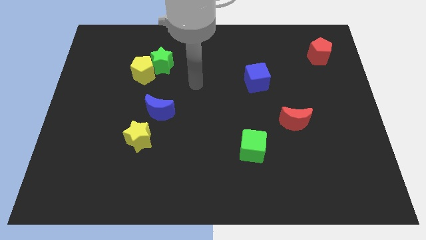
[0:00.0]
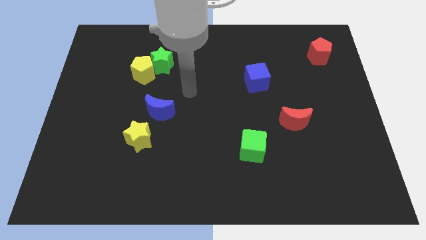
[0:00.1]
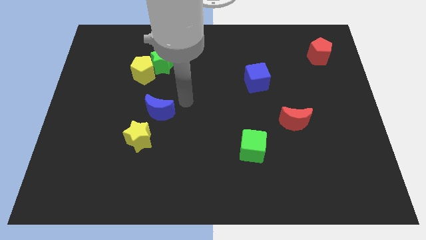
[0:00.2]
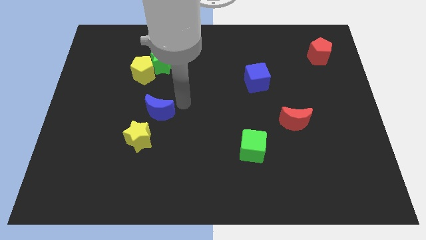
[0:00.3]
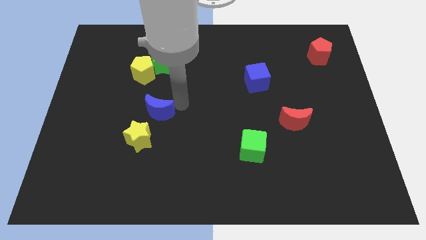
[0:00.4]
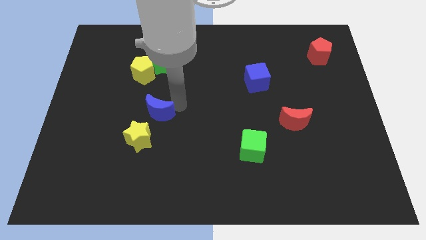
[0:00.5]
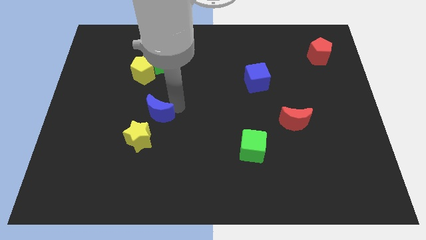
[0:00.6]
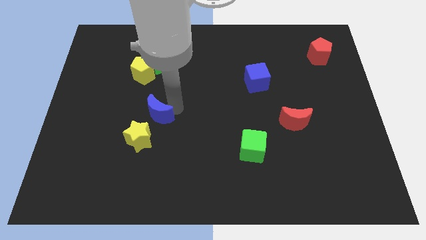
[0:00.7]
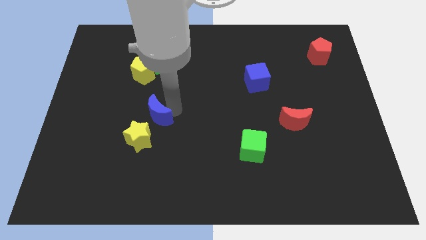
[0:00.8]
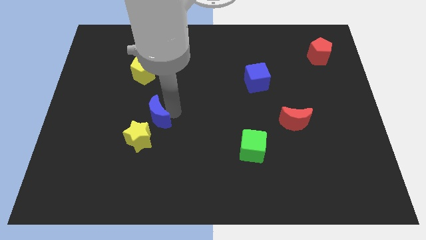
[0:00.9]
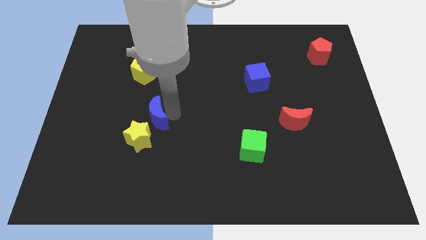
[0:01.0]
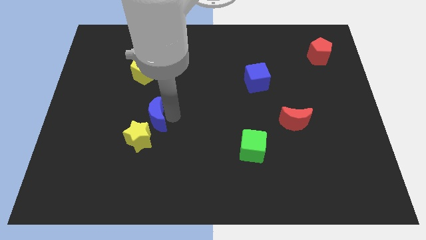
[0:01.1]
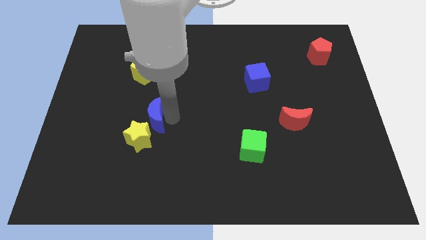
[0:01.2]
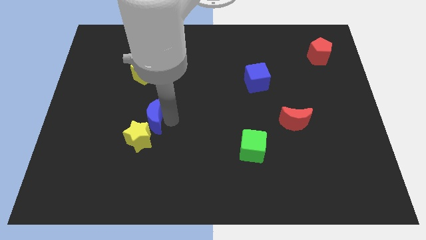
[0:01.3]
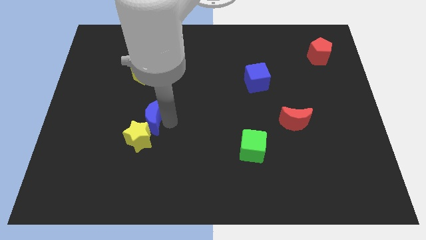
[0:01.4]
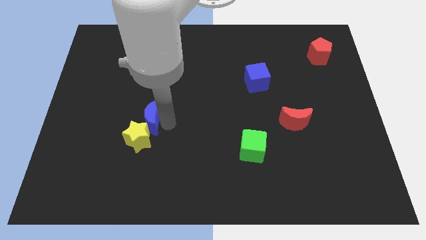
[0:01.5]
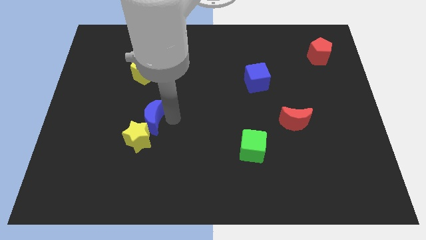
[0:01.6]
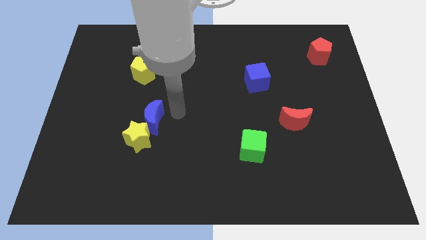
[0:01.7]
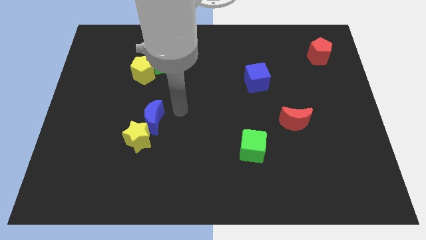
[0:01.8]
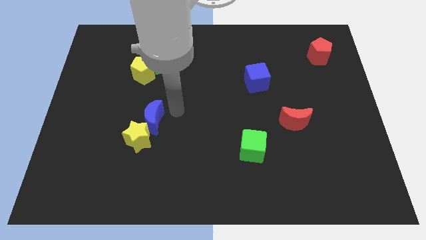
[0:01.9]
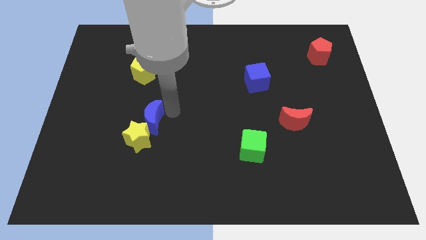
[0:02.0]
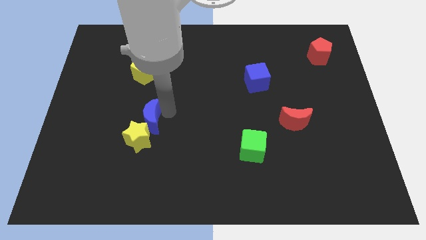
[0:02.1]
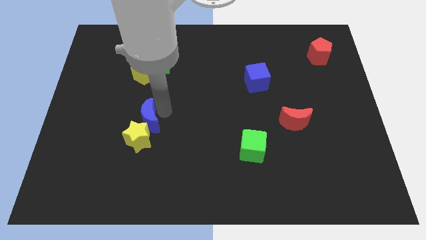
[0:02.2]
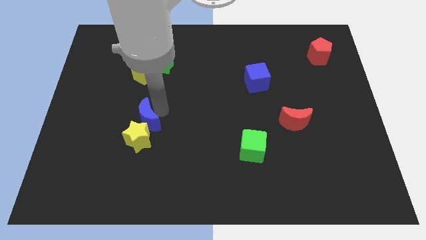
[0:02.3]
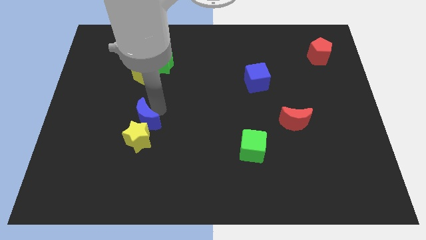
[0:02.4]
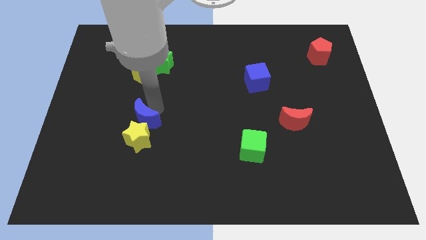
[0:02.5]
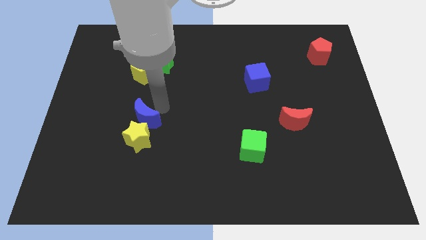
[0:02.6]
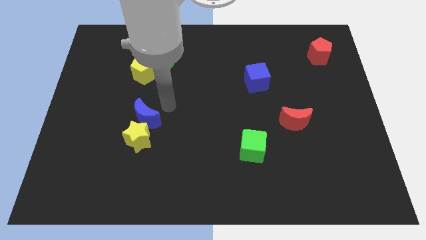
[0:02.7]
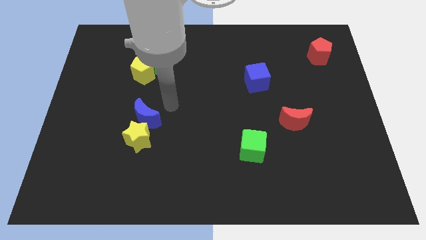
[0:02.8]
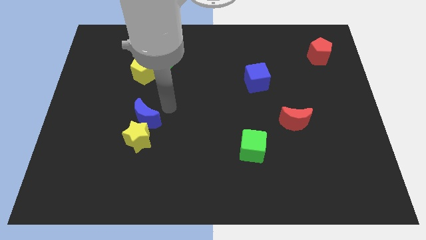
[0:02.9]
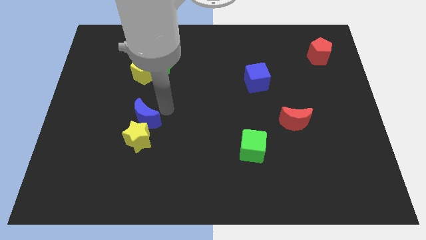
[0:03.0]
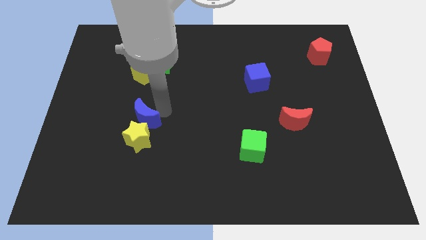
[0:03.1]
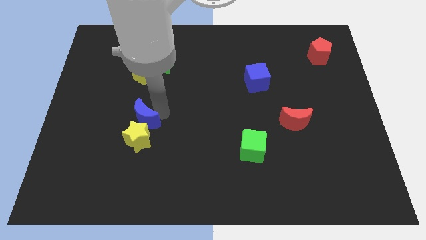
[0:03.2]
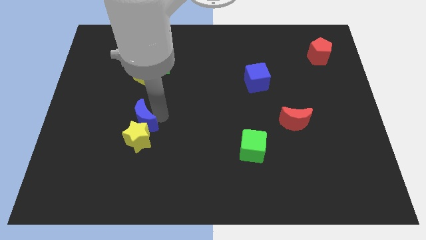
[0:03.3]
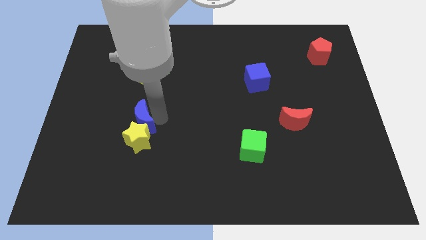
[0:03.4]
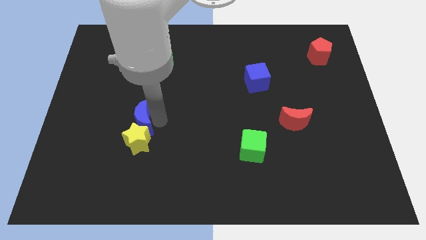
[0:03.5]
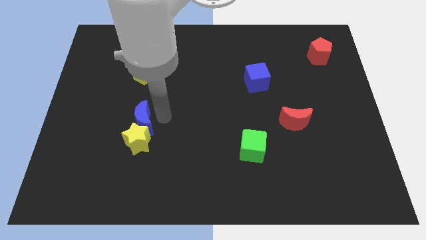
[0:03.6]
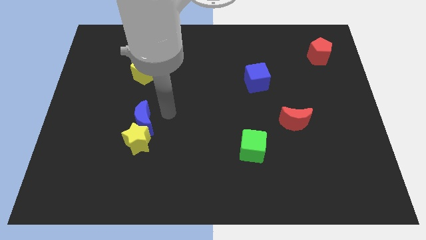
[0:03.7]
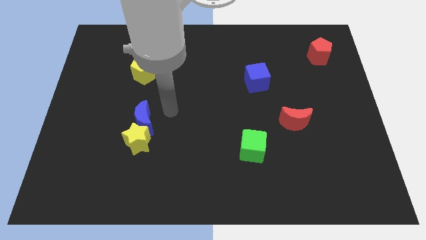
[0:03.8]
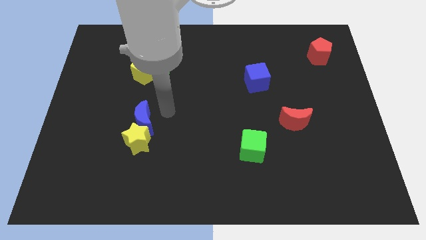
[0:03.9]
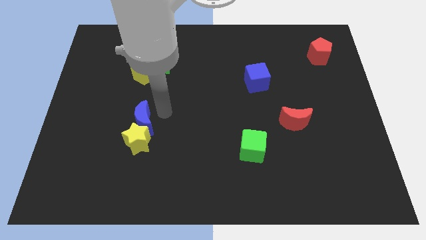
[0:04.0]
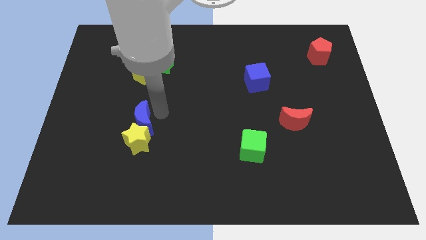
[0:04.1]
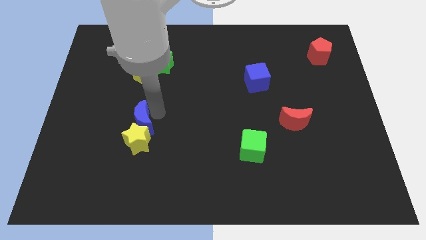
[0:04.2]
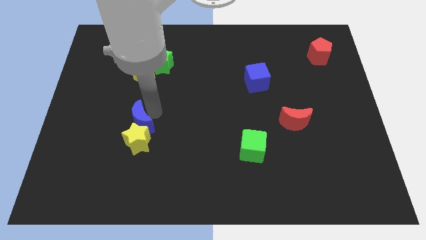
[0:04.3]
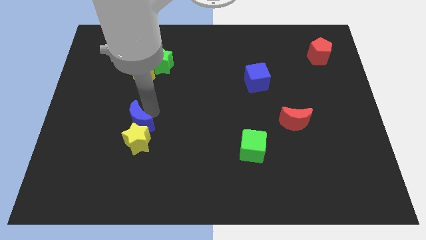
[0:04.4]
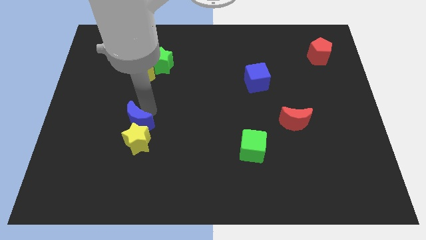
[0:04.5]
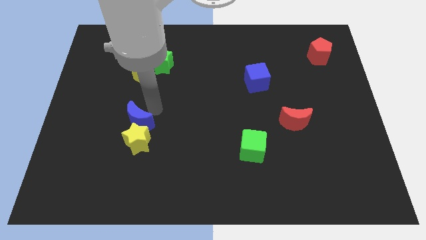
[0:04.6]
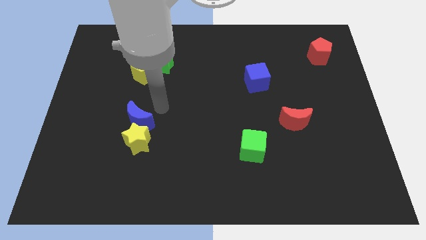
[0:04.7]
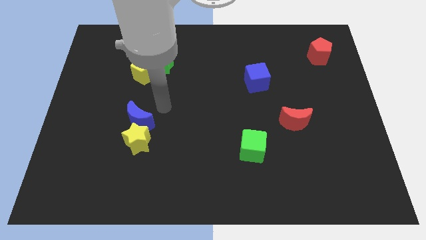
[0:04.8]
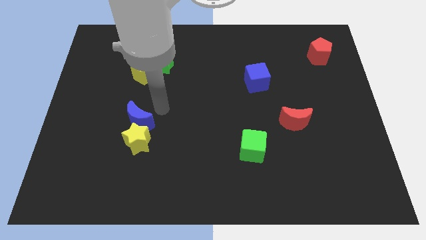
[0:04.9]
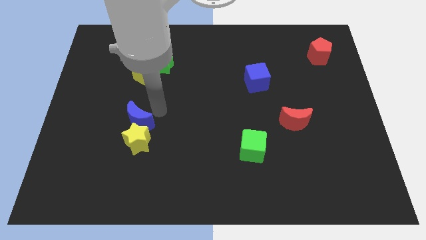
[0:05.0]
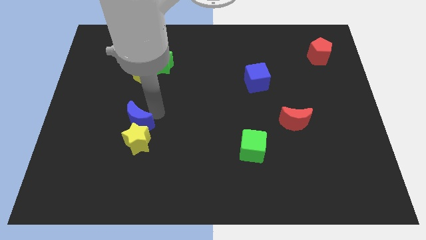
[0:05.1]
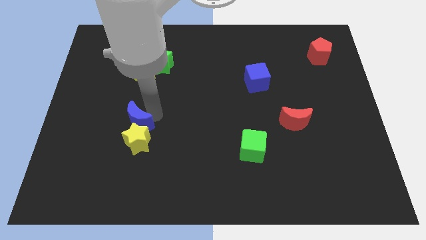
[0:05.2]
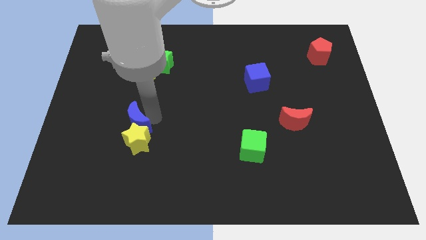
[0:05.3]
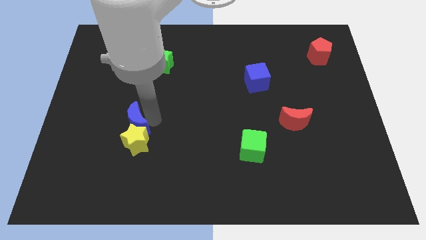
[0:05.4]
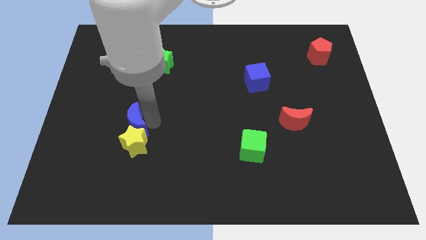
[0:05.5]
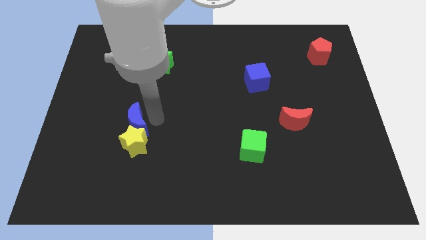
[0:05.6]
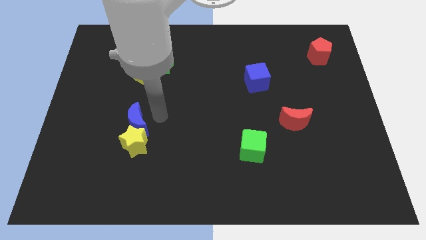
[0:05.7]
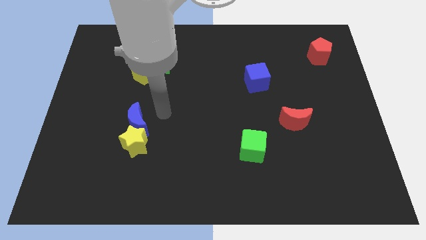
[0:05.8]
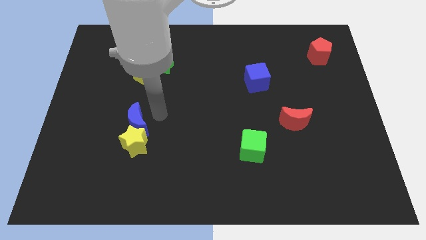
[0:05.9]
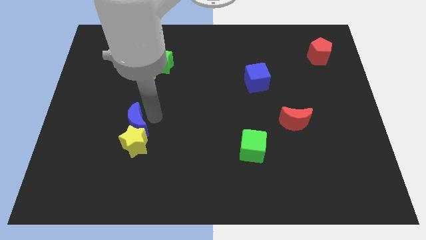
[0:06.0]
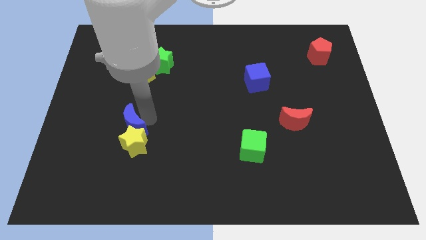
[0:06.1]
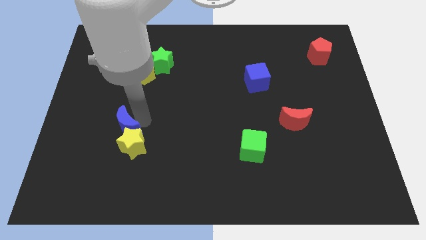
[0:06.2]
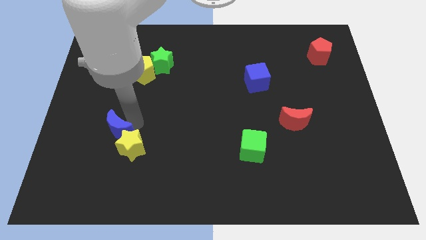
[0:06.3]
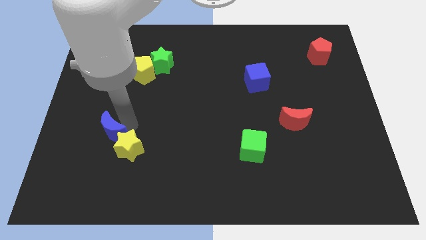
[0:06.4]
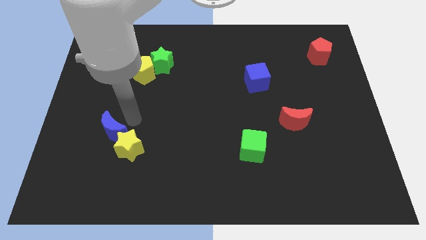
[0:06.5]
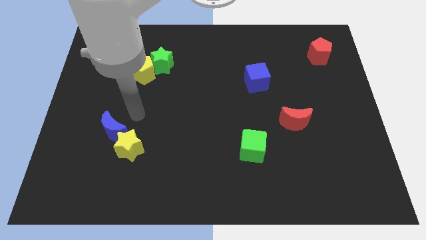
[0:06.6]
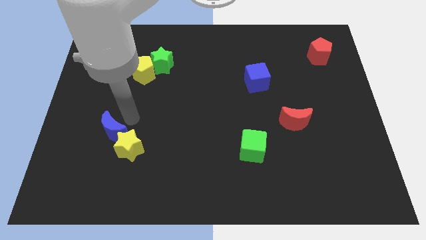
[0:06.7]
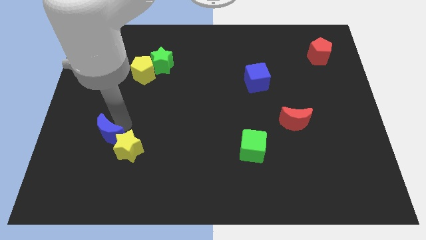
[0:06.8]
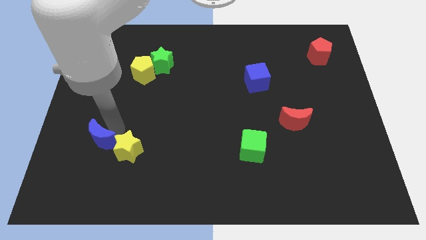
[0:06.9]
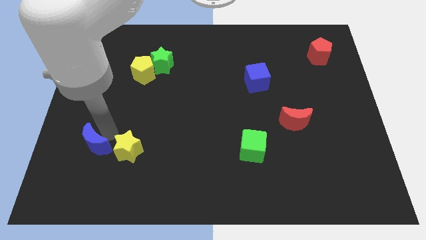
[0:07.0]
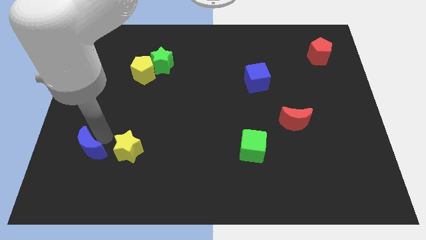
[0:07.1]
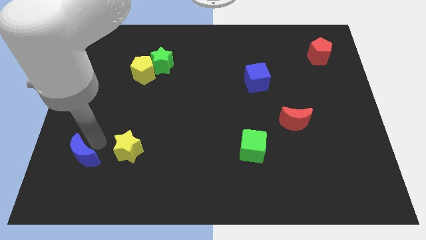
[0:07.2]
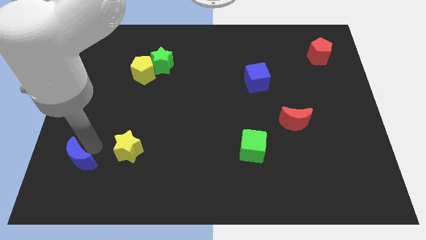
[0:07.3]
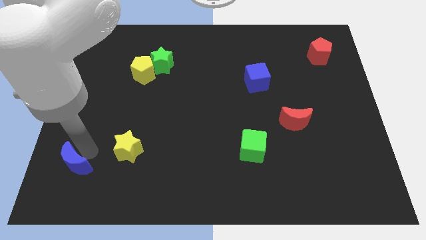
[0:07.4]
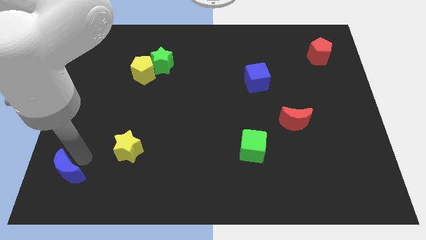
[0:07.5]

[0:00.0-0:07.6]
slide the blue moon to the lower left corner

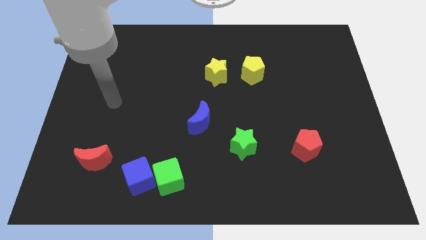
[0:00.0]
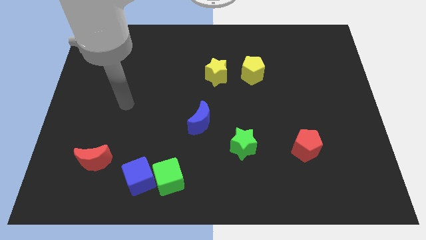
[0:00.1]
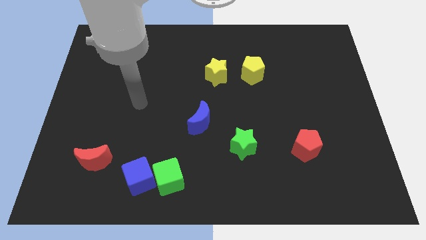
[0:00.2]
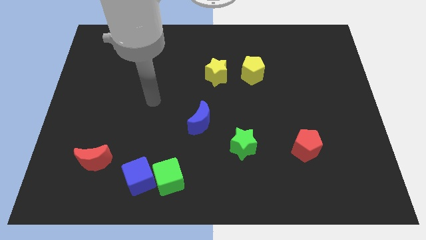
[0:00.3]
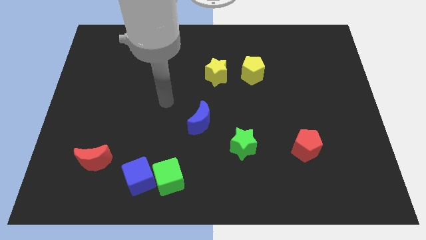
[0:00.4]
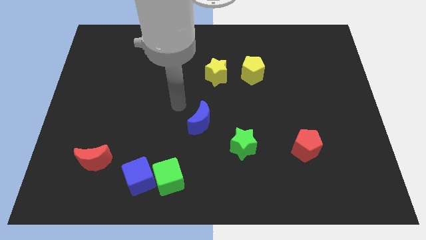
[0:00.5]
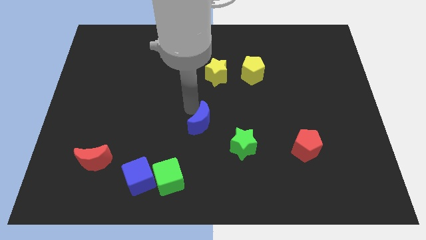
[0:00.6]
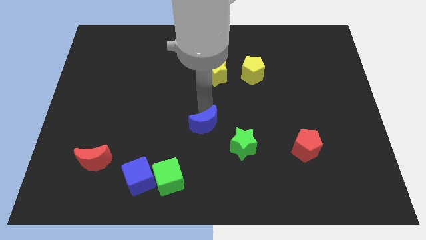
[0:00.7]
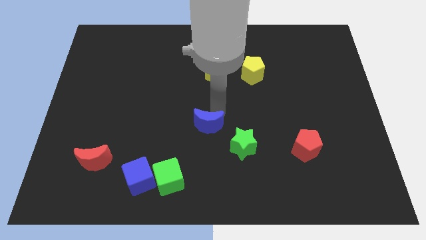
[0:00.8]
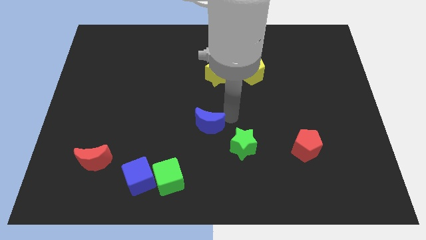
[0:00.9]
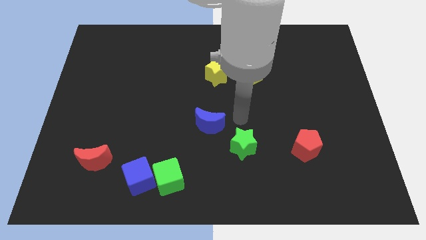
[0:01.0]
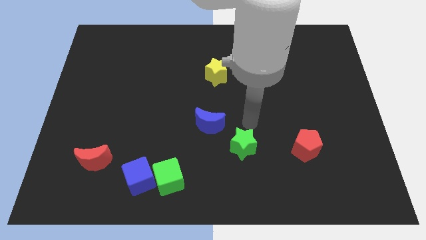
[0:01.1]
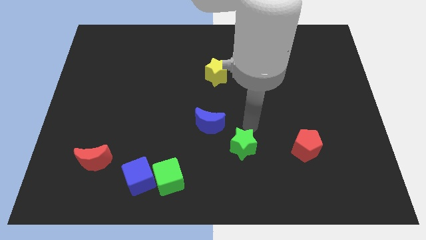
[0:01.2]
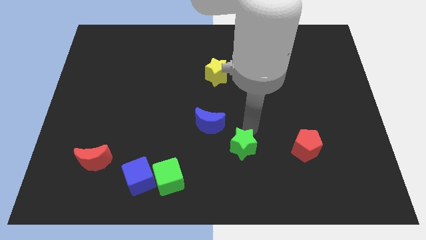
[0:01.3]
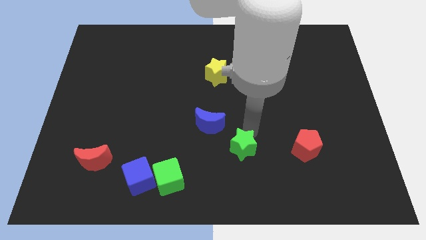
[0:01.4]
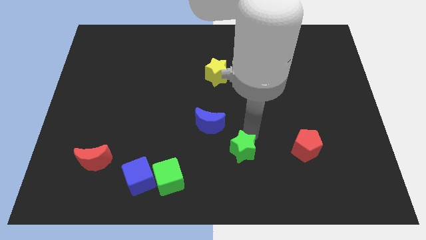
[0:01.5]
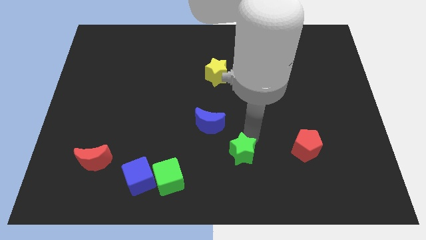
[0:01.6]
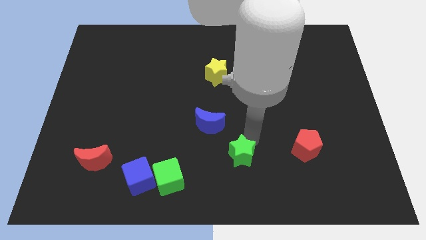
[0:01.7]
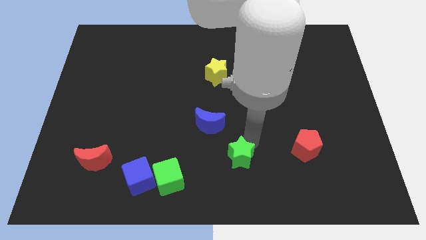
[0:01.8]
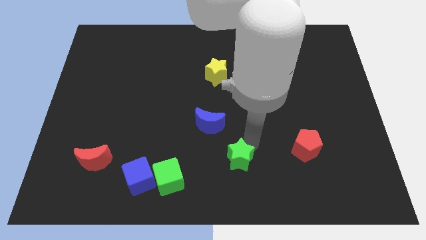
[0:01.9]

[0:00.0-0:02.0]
put the green star to the bottom side
